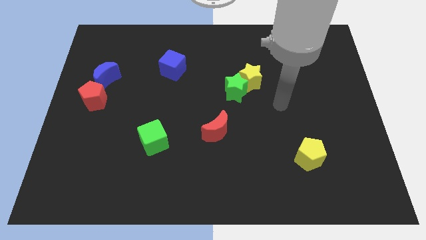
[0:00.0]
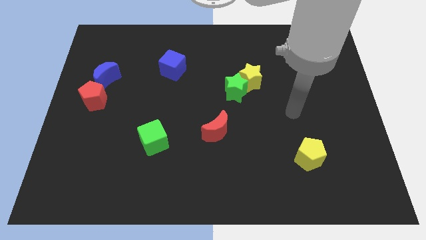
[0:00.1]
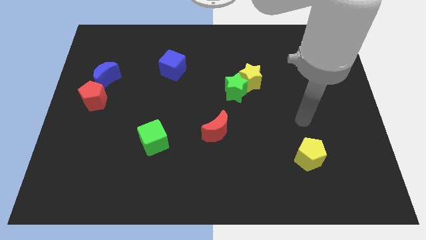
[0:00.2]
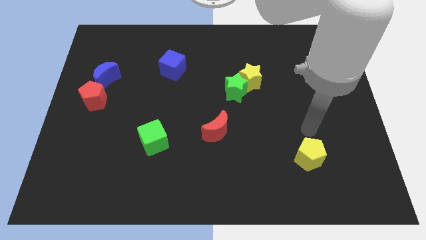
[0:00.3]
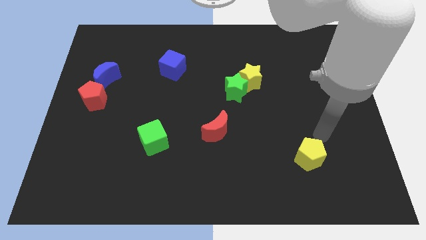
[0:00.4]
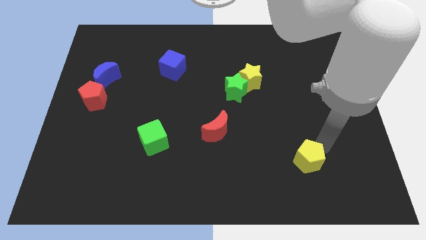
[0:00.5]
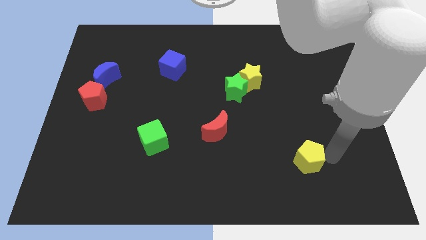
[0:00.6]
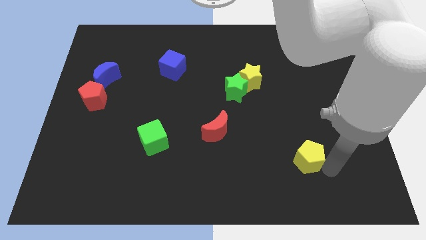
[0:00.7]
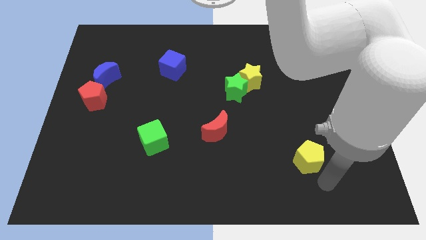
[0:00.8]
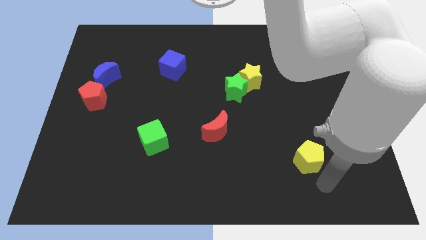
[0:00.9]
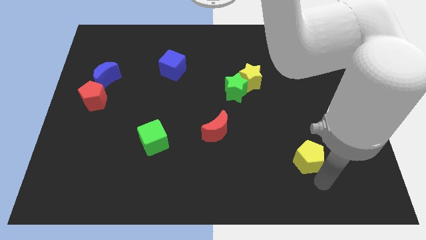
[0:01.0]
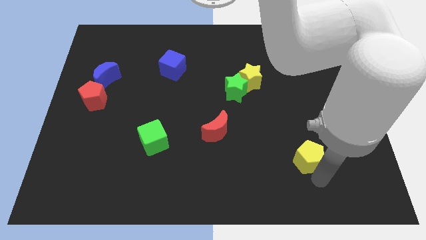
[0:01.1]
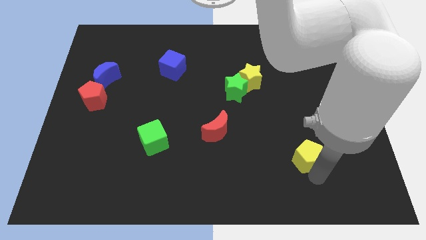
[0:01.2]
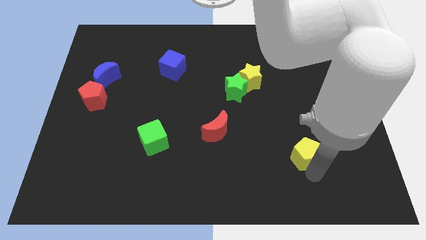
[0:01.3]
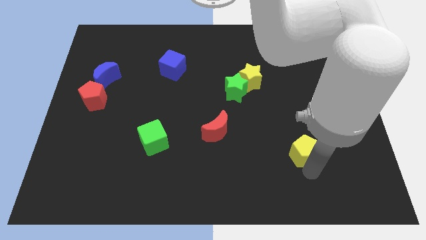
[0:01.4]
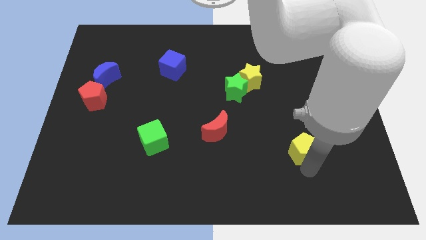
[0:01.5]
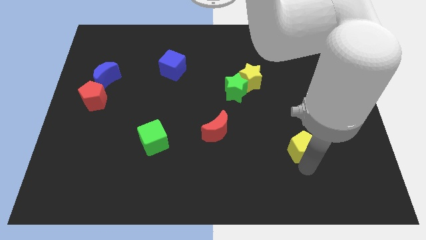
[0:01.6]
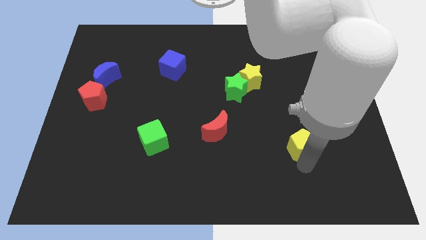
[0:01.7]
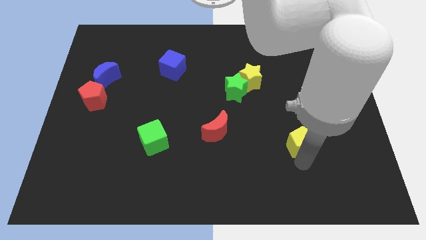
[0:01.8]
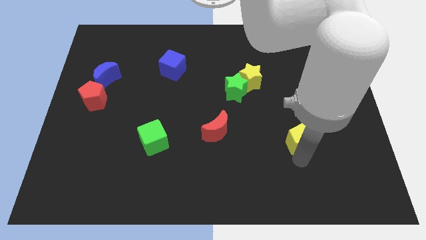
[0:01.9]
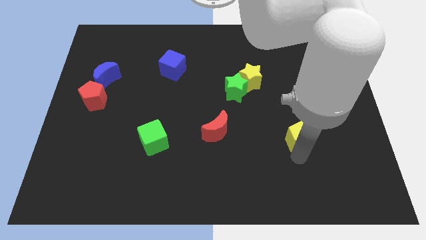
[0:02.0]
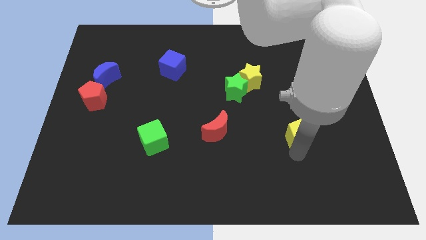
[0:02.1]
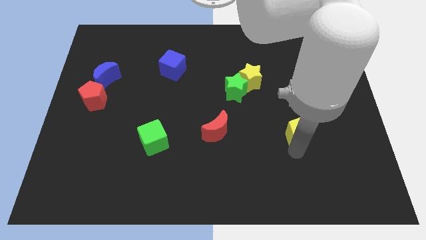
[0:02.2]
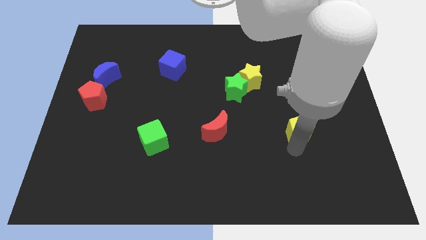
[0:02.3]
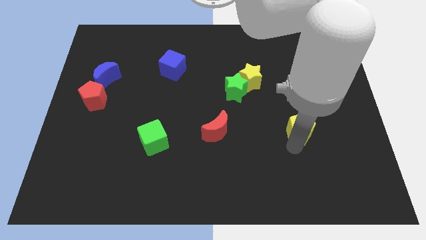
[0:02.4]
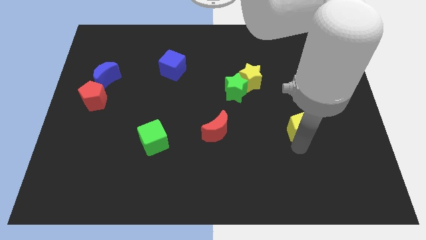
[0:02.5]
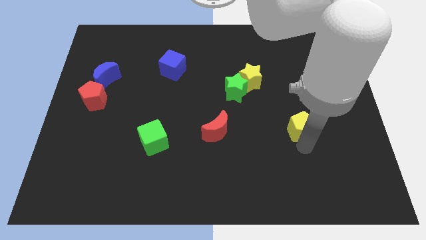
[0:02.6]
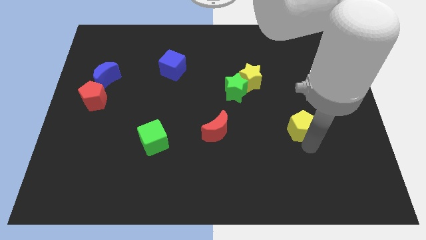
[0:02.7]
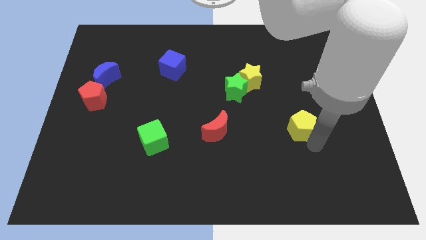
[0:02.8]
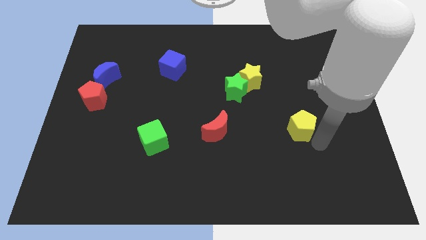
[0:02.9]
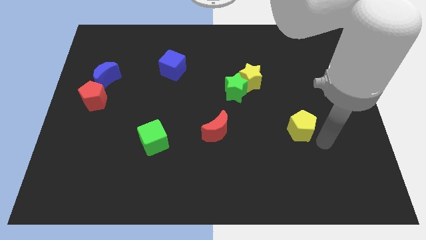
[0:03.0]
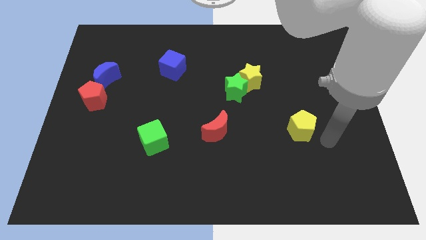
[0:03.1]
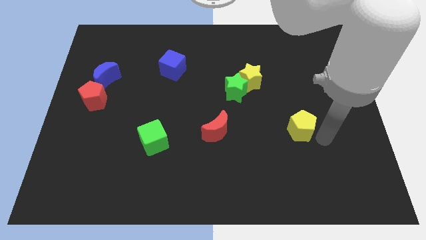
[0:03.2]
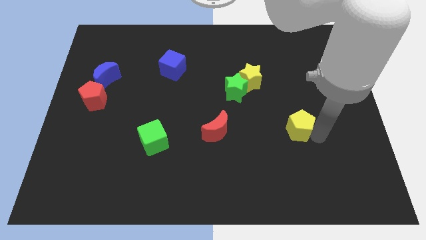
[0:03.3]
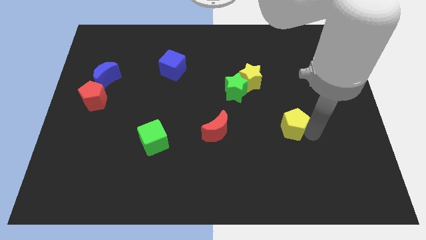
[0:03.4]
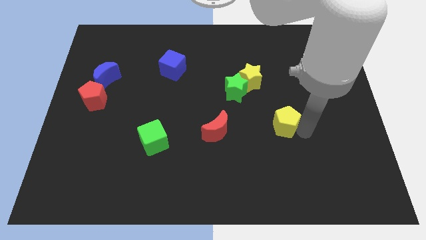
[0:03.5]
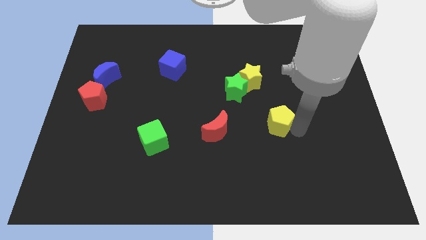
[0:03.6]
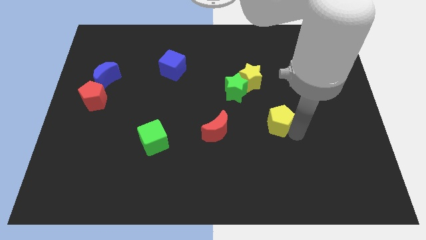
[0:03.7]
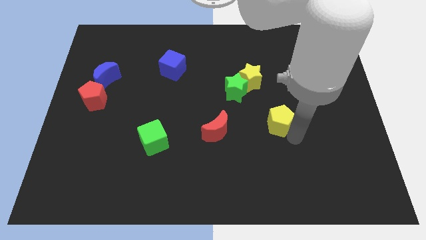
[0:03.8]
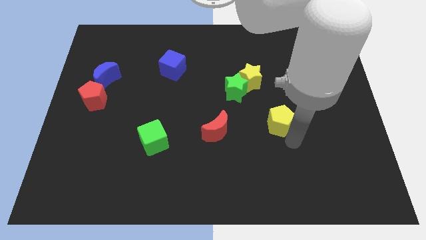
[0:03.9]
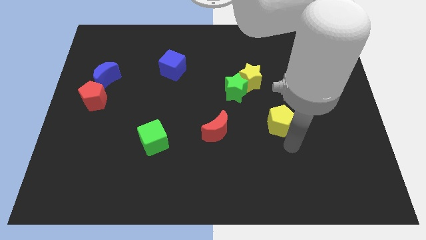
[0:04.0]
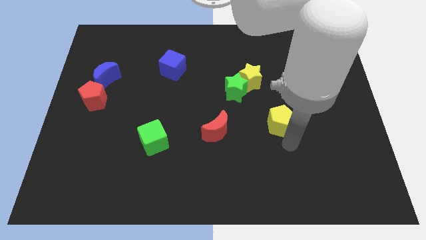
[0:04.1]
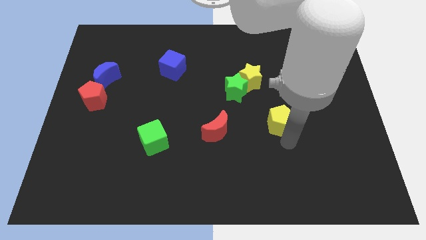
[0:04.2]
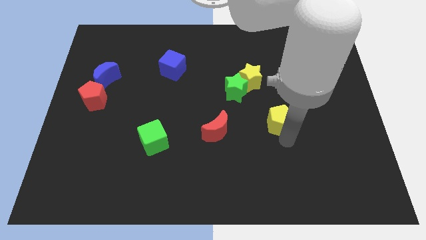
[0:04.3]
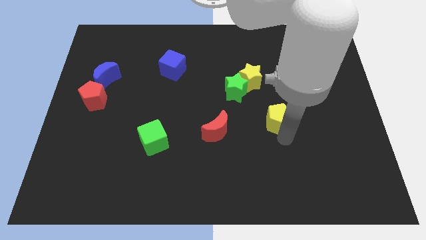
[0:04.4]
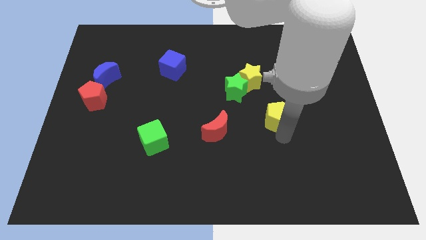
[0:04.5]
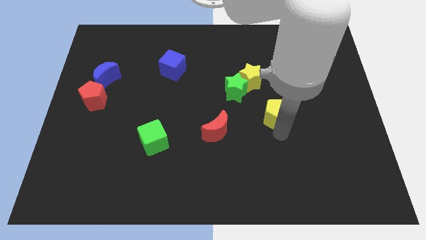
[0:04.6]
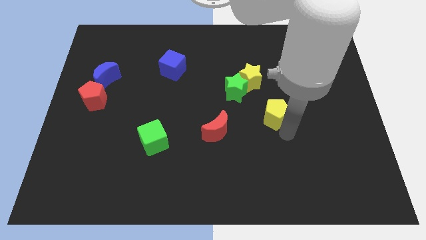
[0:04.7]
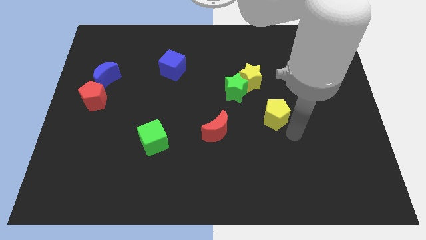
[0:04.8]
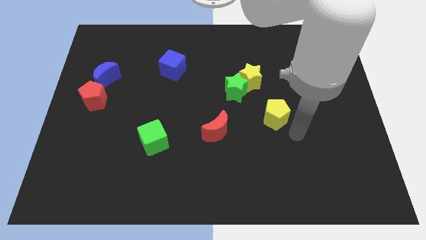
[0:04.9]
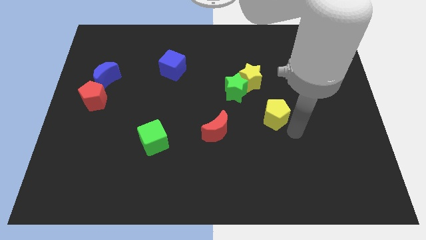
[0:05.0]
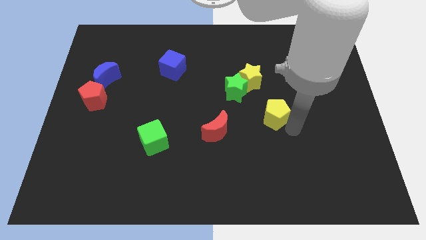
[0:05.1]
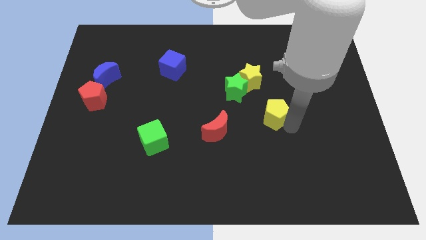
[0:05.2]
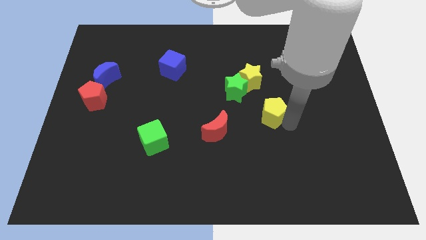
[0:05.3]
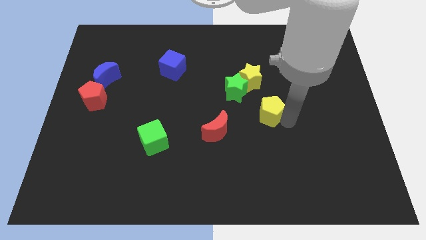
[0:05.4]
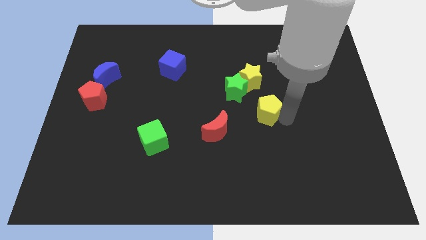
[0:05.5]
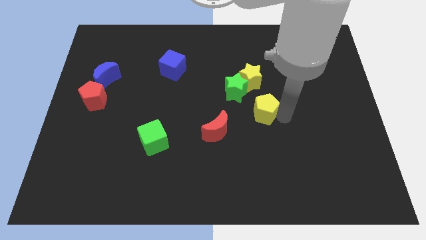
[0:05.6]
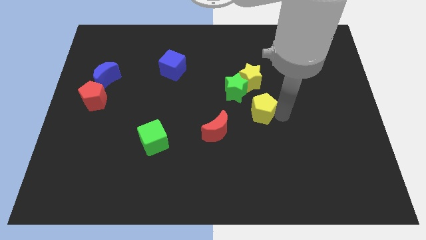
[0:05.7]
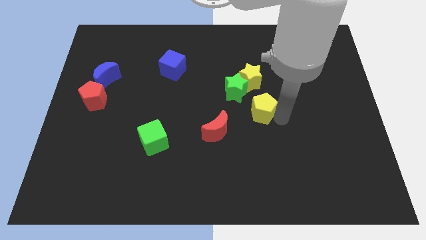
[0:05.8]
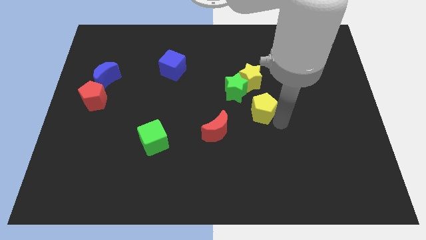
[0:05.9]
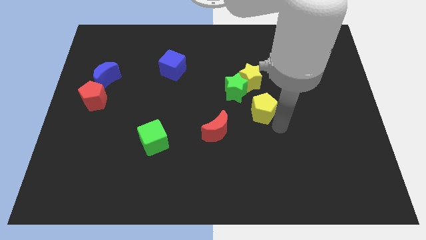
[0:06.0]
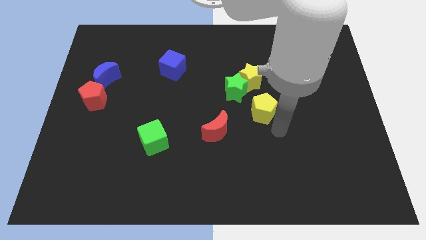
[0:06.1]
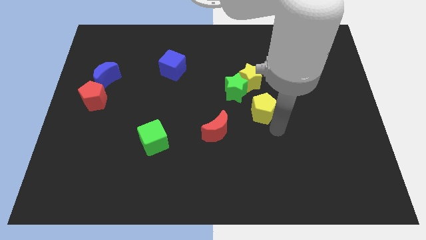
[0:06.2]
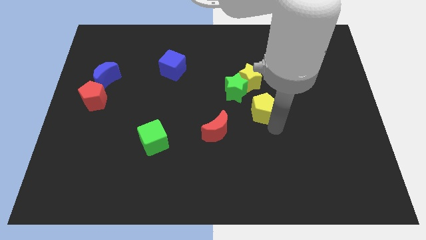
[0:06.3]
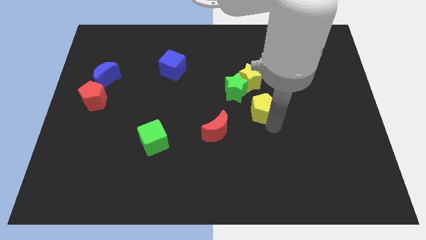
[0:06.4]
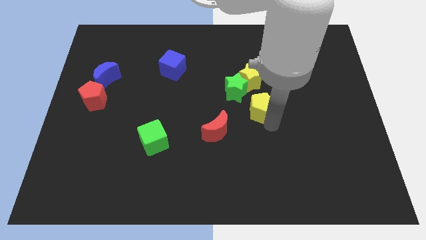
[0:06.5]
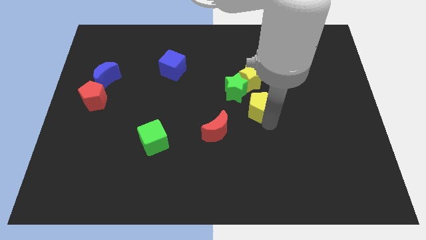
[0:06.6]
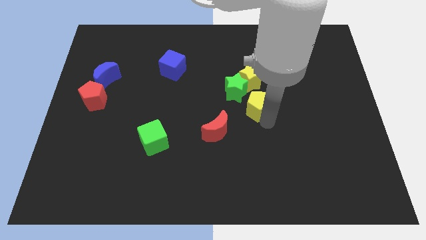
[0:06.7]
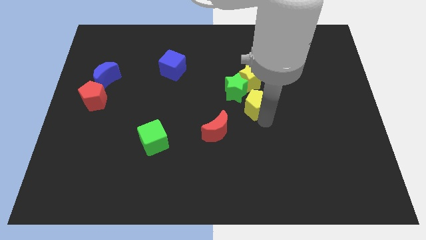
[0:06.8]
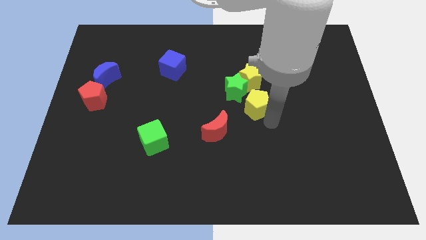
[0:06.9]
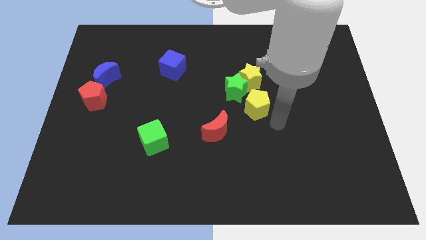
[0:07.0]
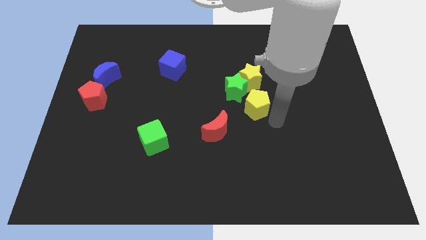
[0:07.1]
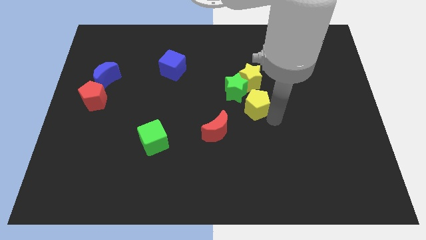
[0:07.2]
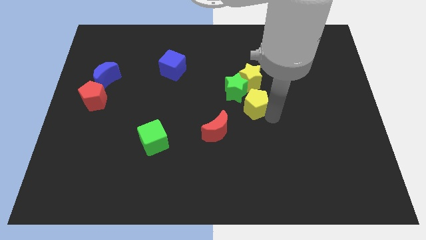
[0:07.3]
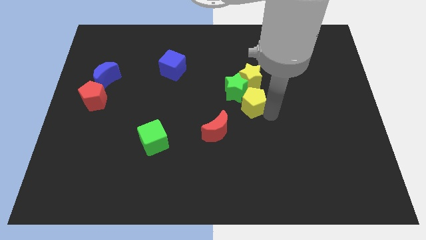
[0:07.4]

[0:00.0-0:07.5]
move the yellow pentagon close to the green star

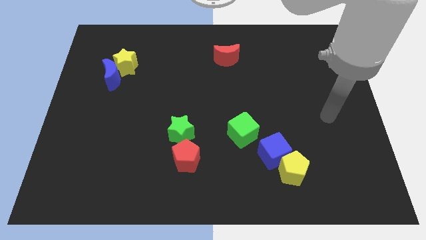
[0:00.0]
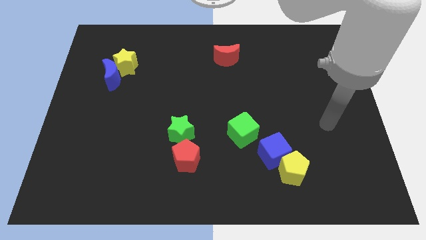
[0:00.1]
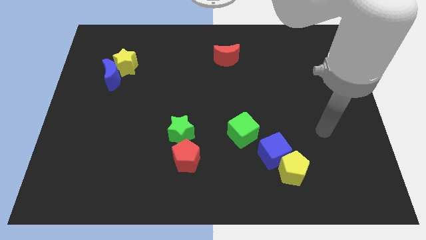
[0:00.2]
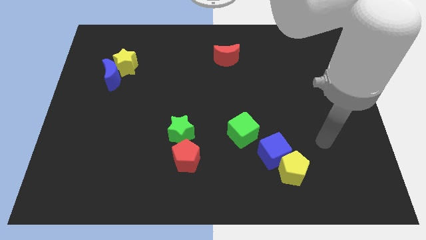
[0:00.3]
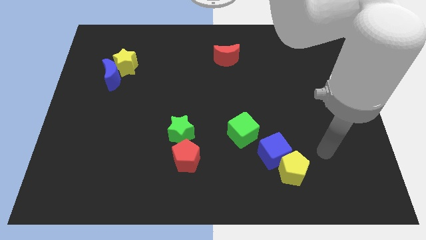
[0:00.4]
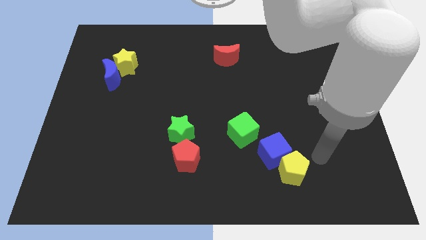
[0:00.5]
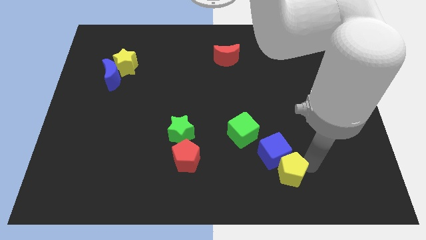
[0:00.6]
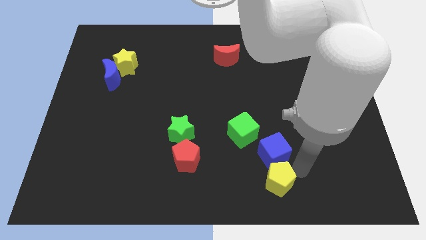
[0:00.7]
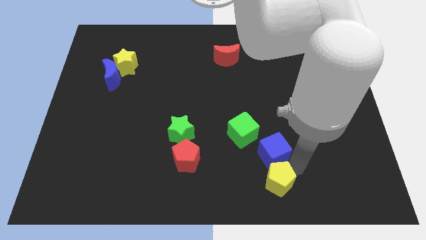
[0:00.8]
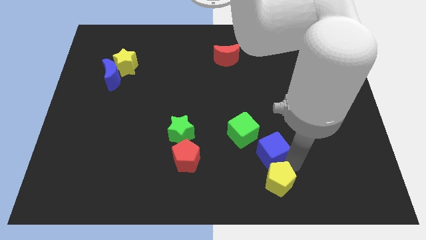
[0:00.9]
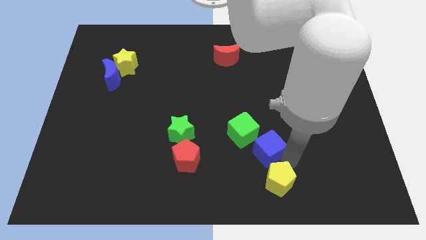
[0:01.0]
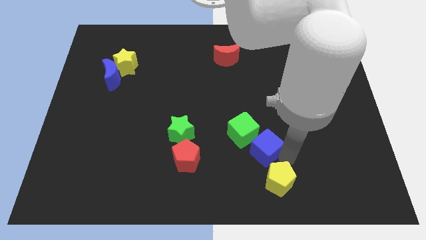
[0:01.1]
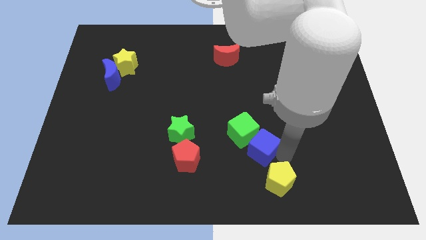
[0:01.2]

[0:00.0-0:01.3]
push the blue cube next to the green cube
